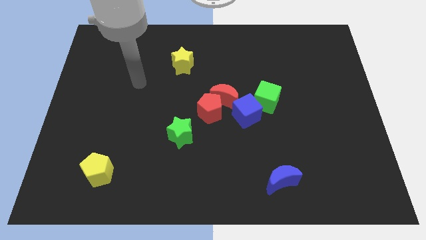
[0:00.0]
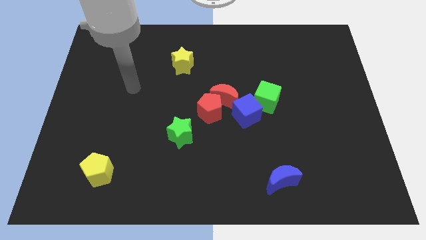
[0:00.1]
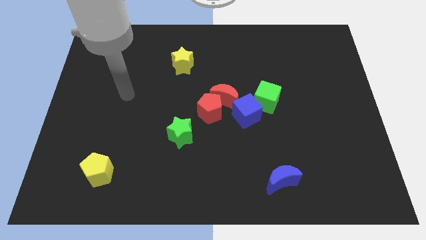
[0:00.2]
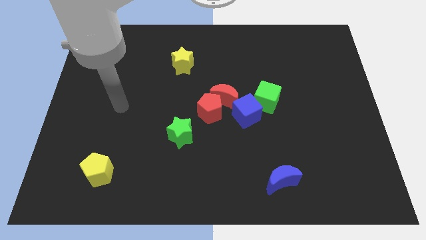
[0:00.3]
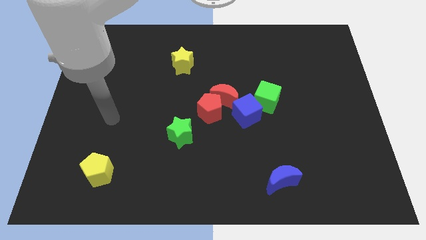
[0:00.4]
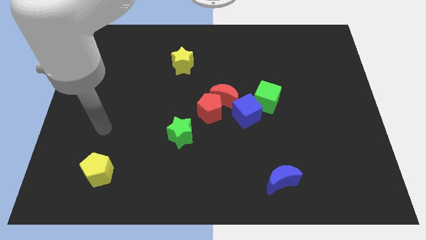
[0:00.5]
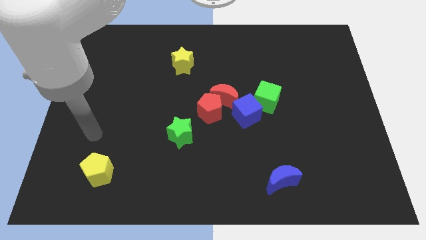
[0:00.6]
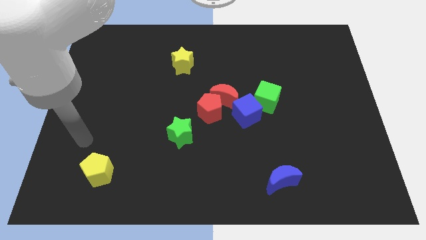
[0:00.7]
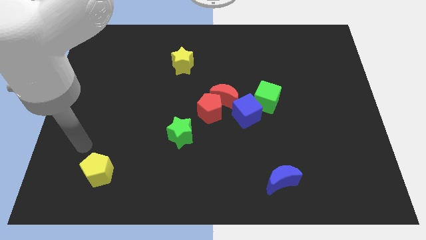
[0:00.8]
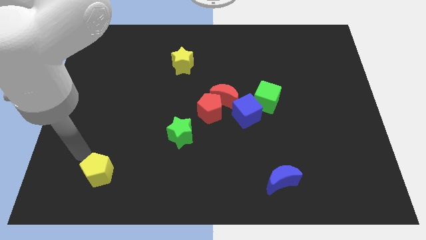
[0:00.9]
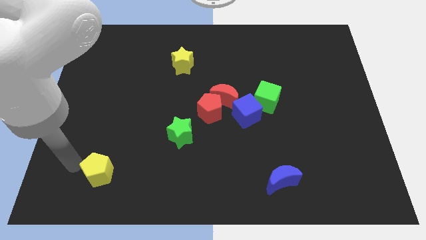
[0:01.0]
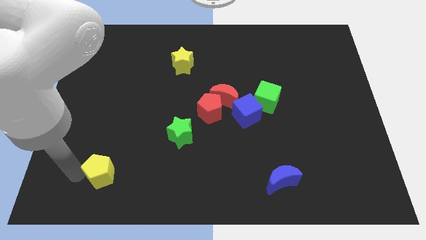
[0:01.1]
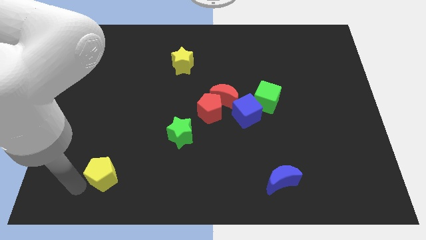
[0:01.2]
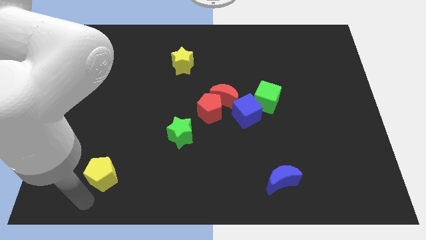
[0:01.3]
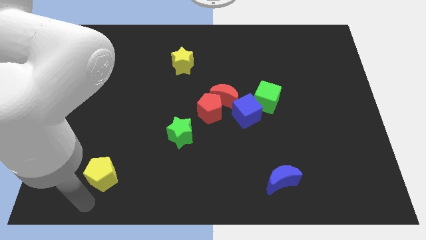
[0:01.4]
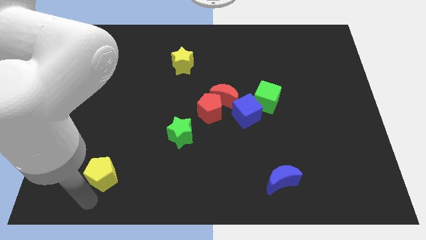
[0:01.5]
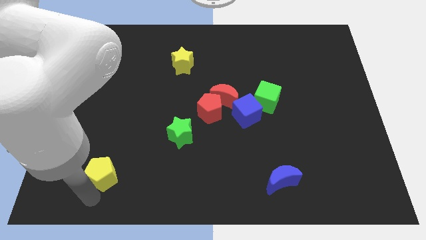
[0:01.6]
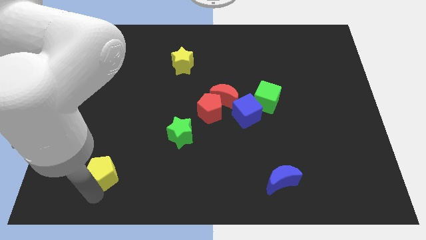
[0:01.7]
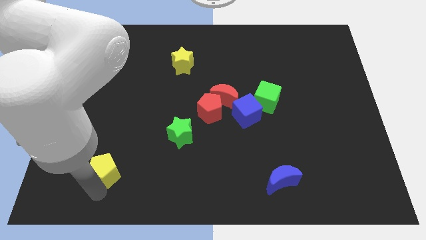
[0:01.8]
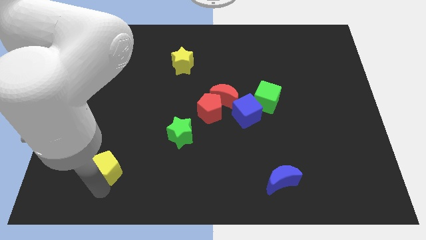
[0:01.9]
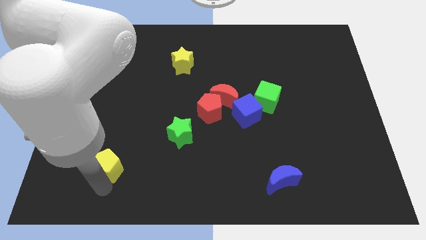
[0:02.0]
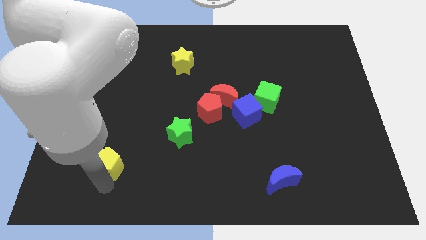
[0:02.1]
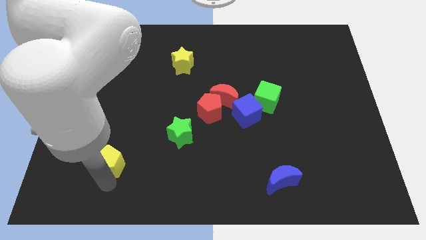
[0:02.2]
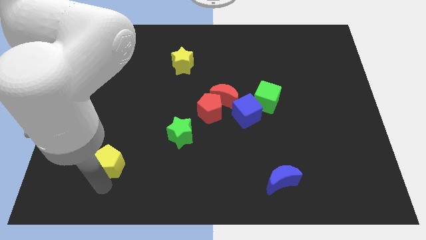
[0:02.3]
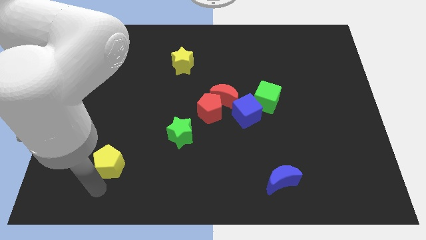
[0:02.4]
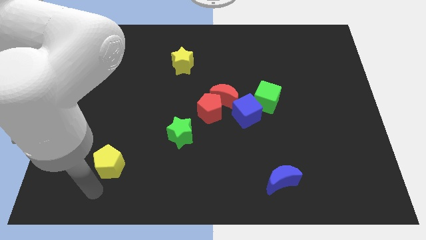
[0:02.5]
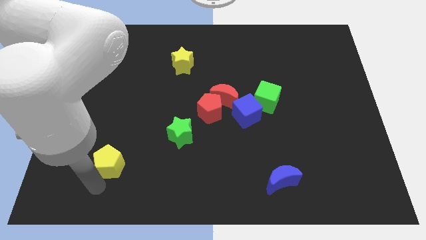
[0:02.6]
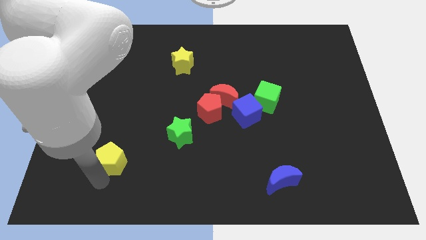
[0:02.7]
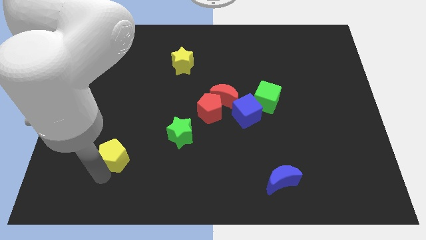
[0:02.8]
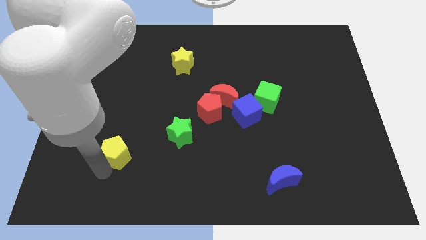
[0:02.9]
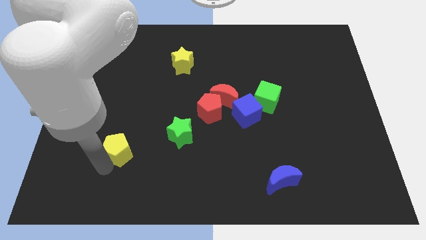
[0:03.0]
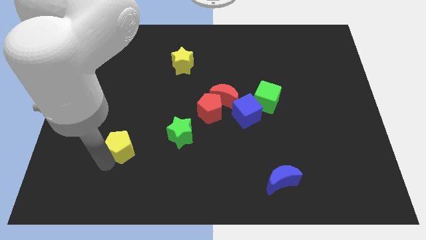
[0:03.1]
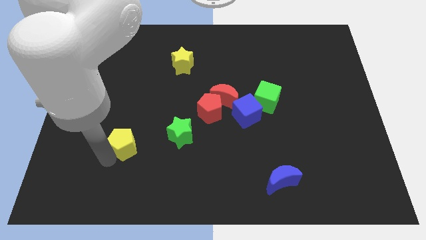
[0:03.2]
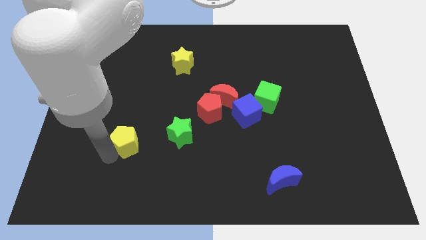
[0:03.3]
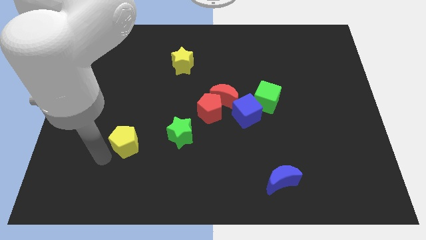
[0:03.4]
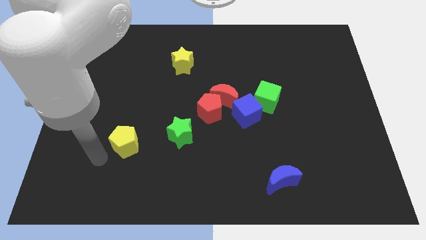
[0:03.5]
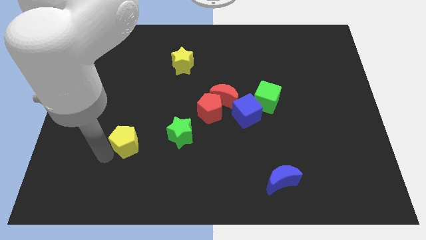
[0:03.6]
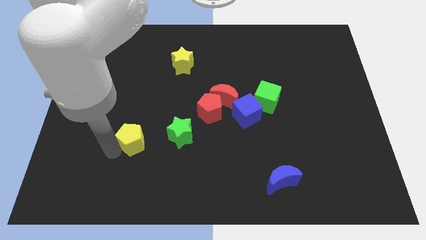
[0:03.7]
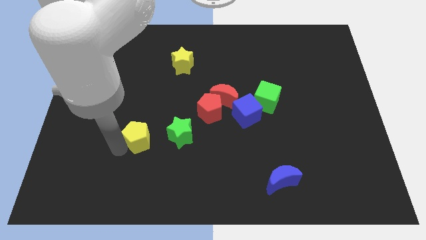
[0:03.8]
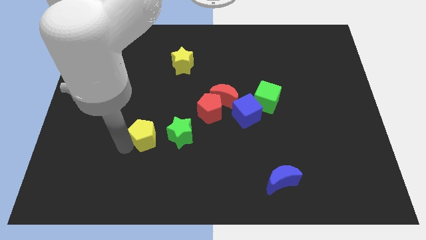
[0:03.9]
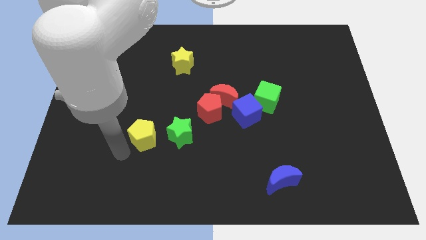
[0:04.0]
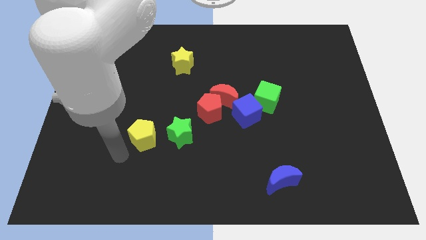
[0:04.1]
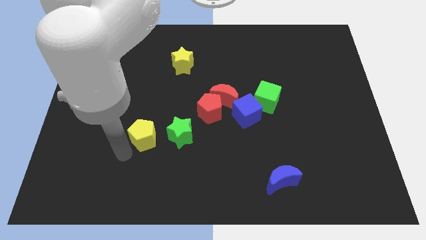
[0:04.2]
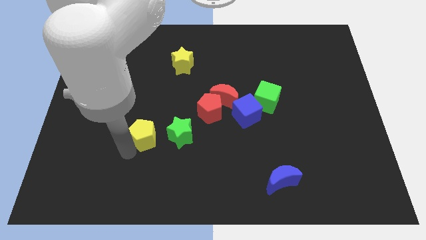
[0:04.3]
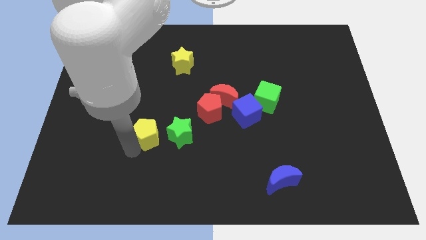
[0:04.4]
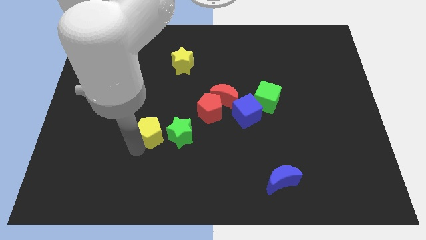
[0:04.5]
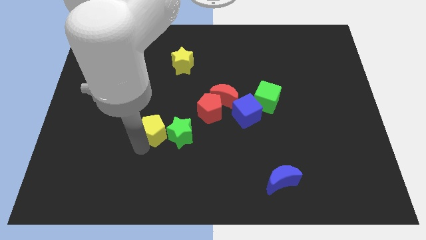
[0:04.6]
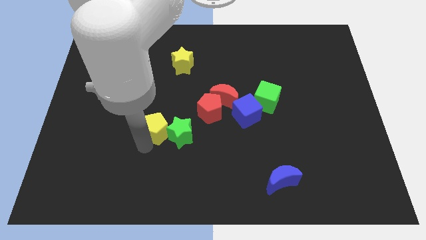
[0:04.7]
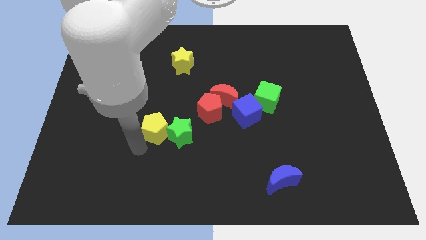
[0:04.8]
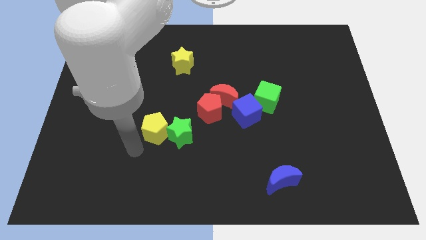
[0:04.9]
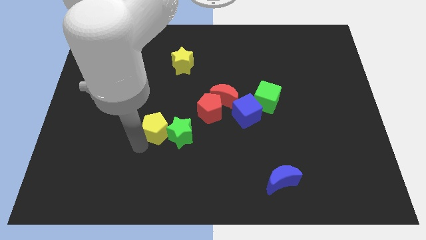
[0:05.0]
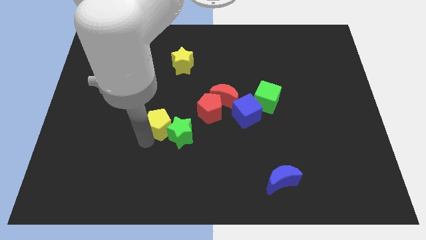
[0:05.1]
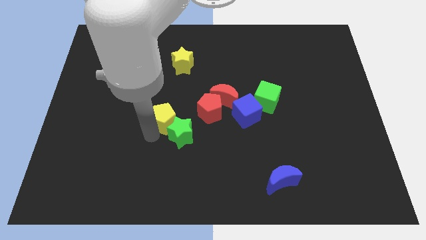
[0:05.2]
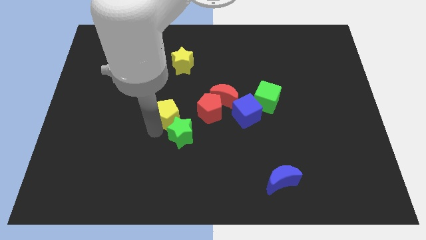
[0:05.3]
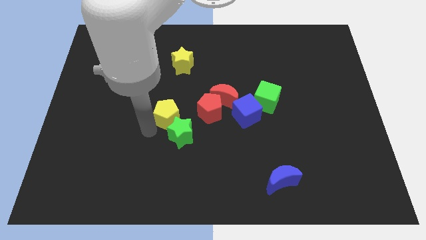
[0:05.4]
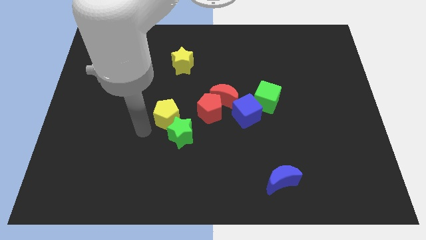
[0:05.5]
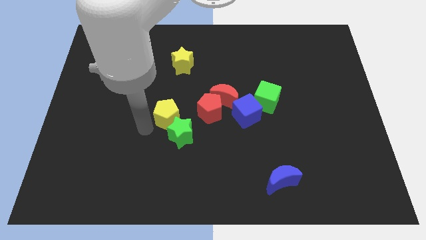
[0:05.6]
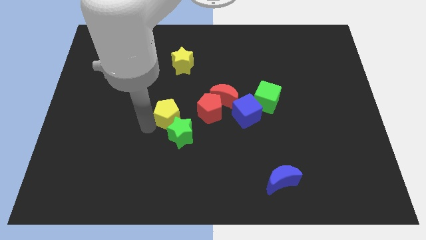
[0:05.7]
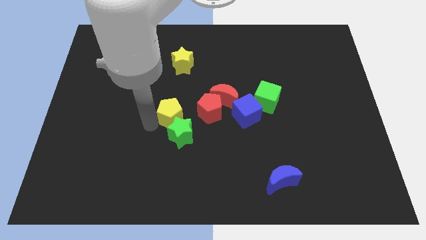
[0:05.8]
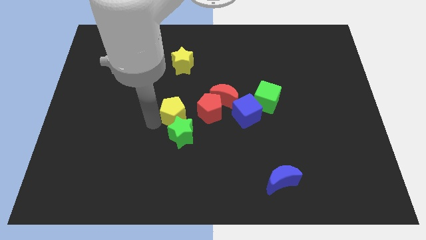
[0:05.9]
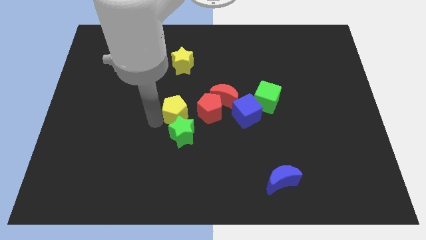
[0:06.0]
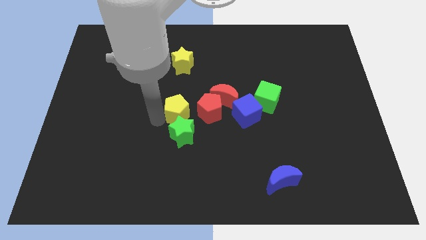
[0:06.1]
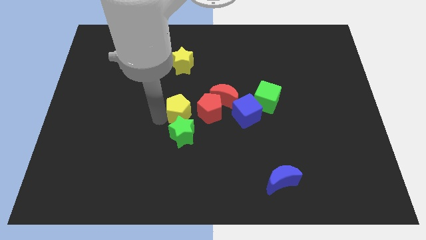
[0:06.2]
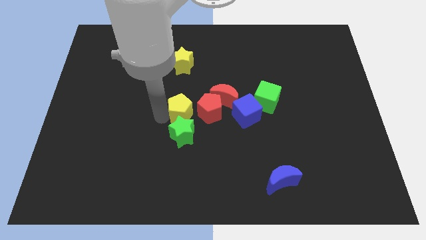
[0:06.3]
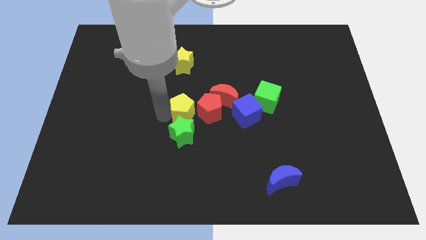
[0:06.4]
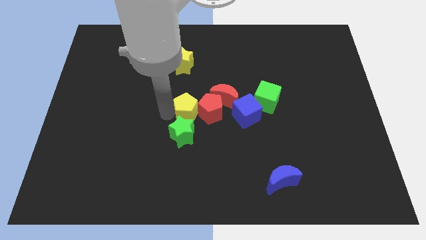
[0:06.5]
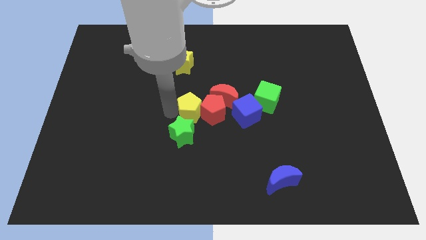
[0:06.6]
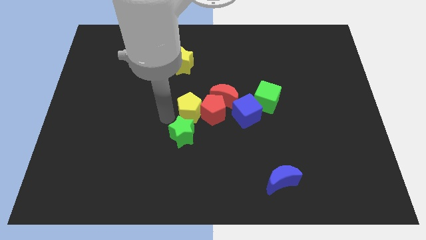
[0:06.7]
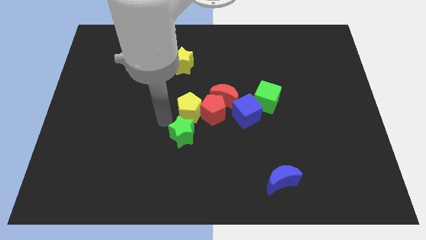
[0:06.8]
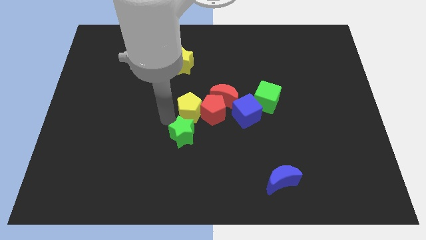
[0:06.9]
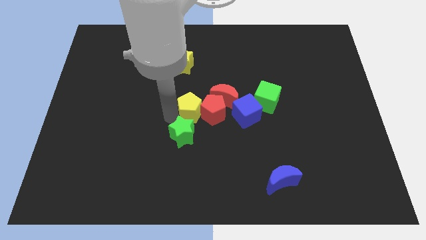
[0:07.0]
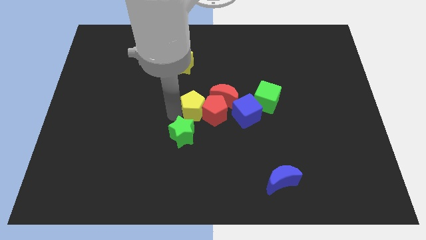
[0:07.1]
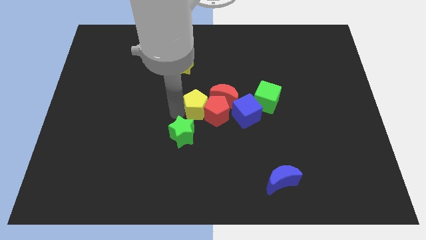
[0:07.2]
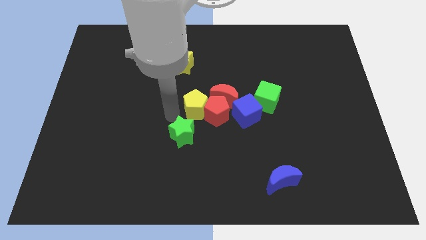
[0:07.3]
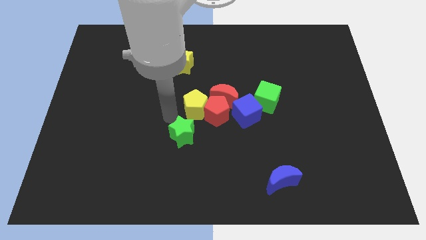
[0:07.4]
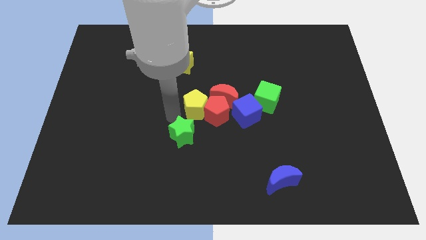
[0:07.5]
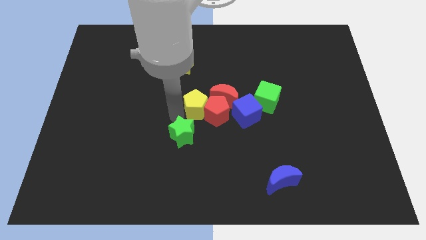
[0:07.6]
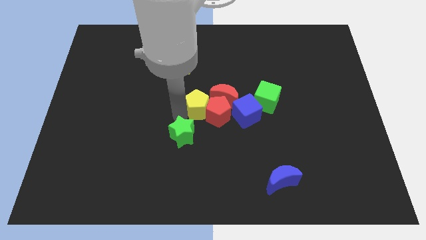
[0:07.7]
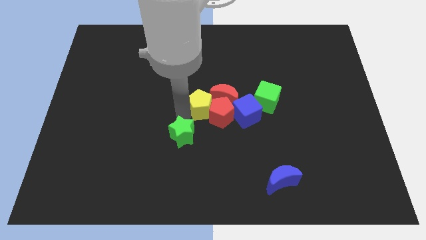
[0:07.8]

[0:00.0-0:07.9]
slide the yellow pentagon to the left of the green cube
